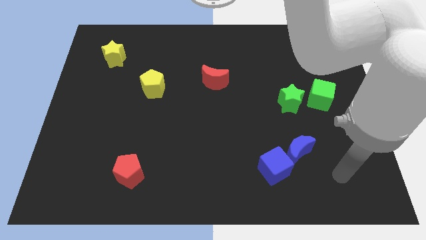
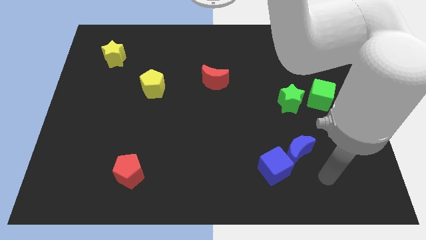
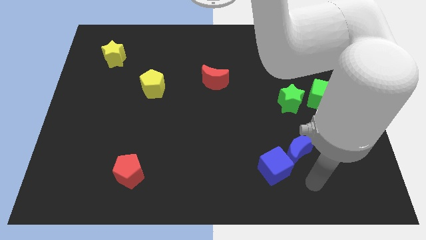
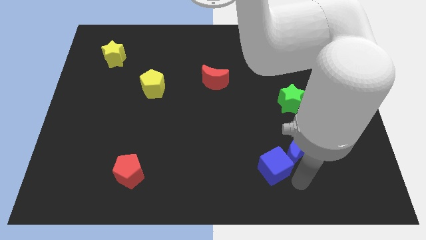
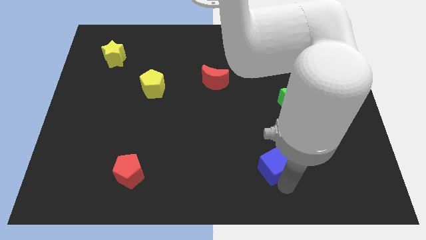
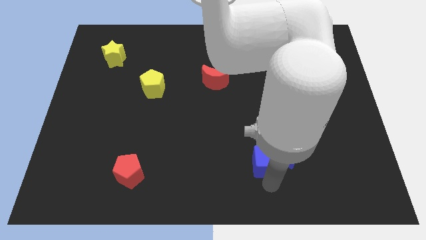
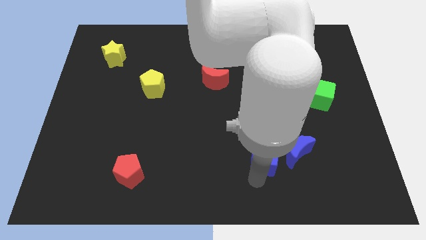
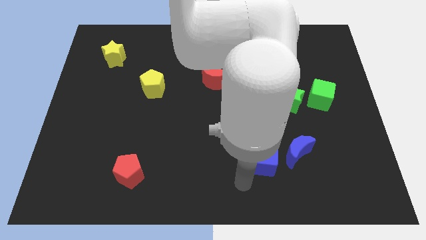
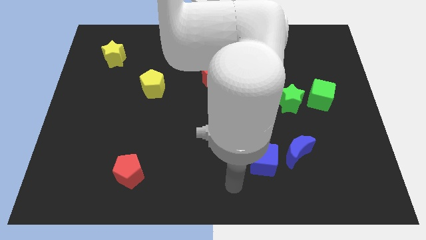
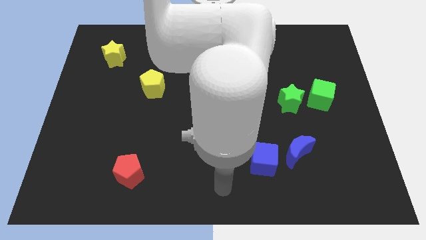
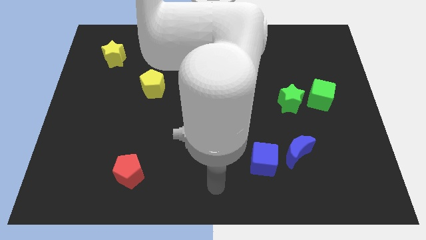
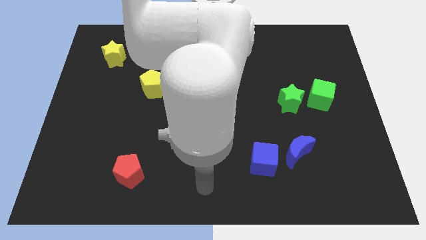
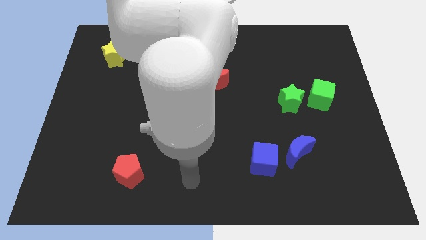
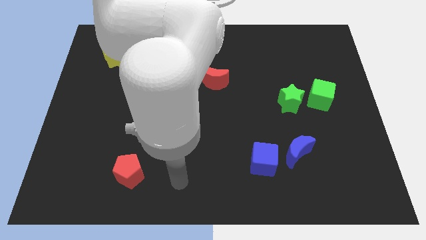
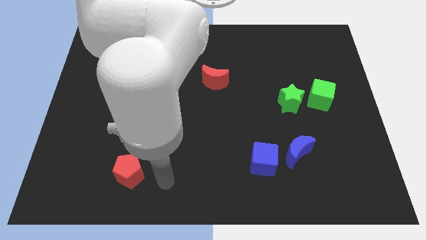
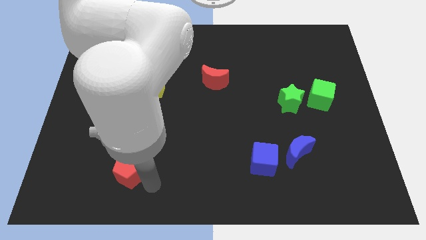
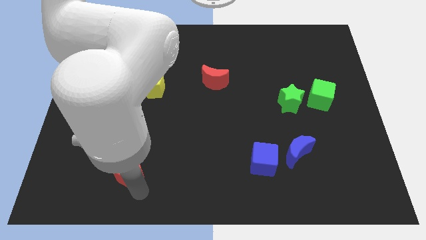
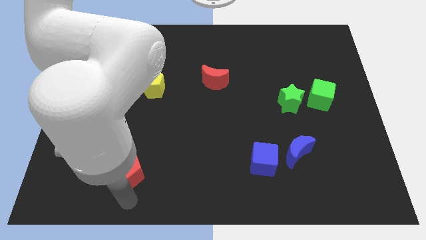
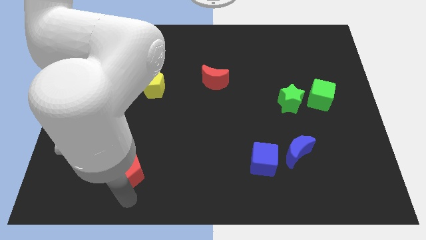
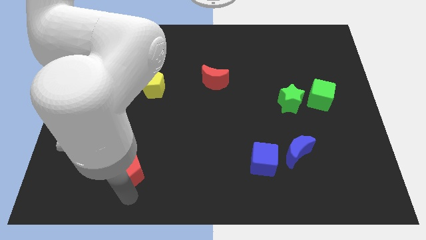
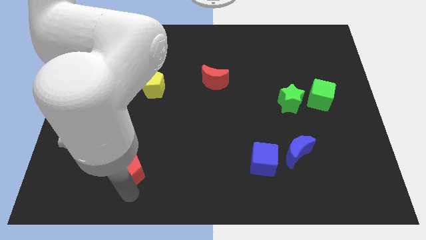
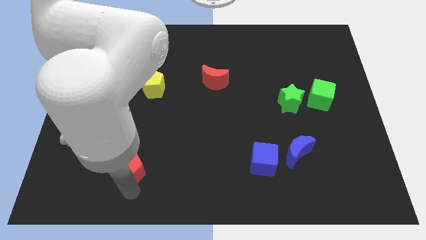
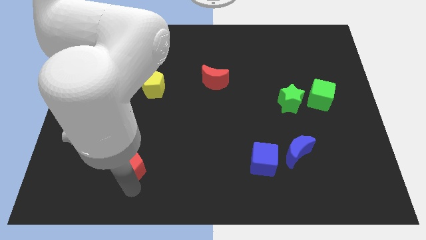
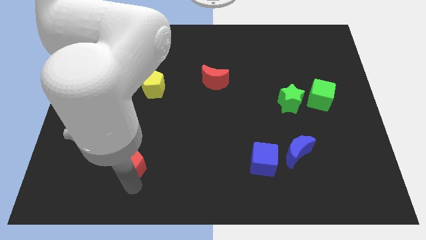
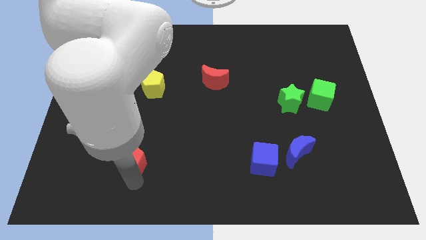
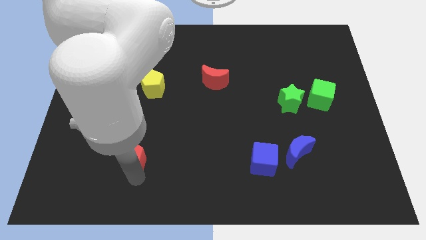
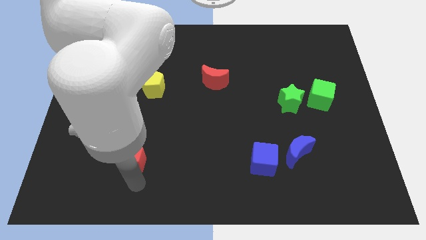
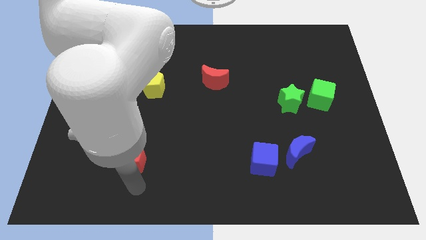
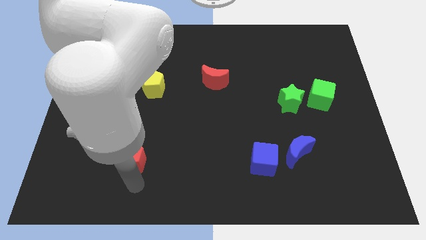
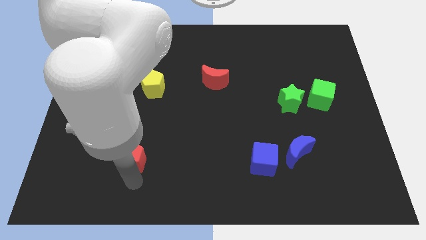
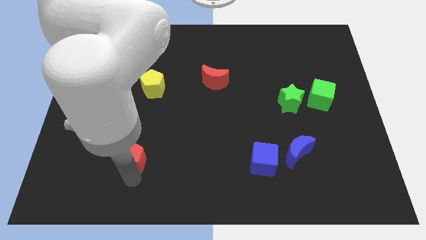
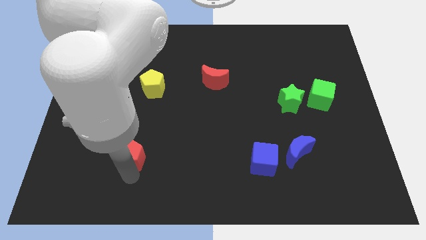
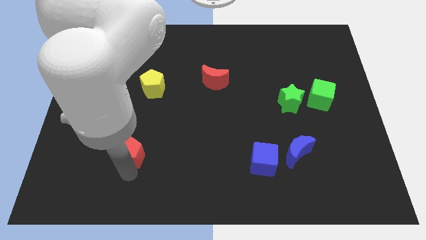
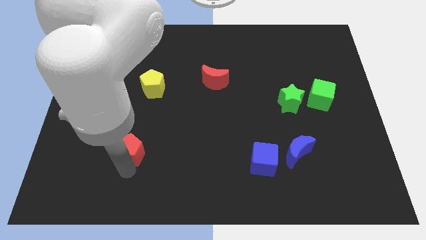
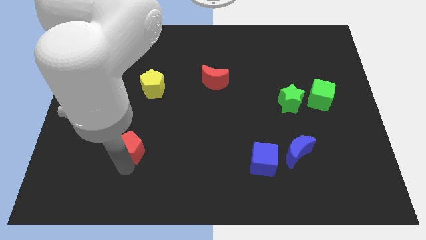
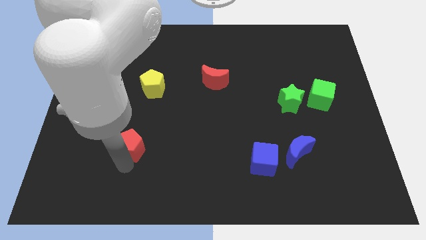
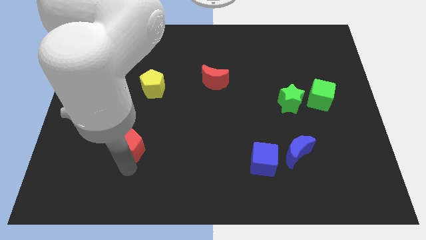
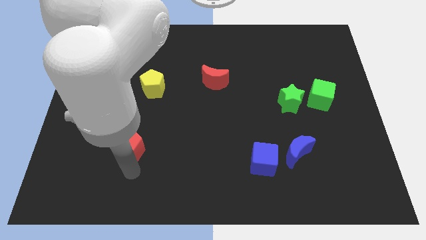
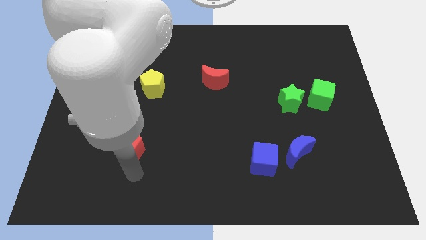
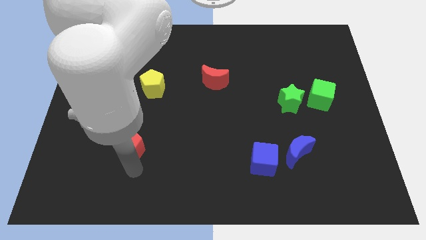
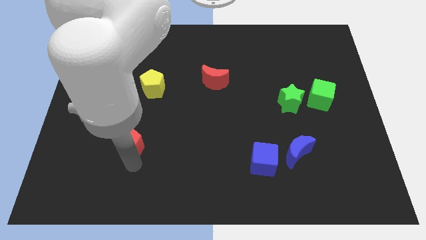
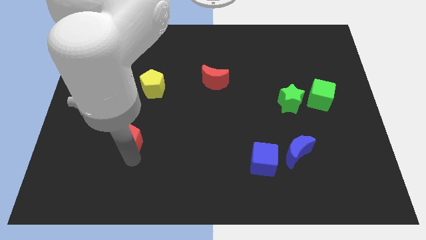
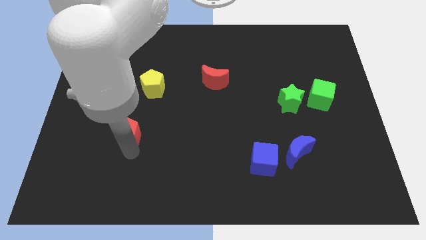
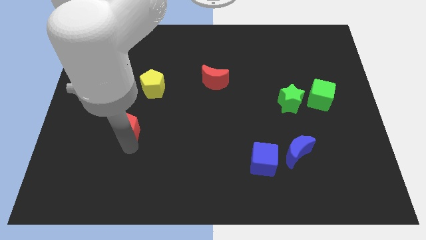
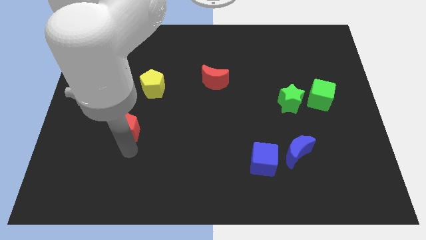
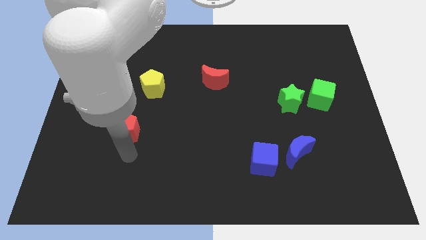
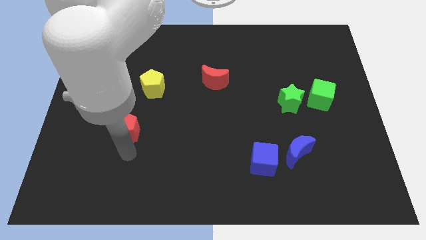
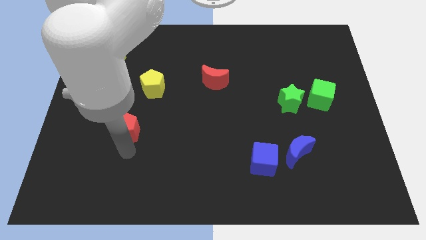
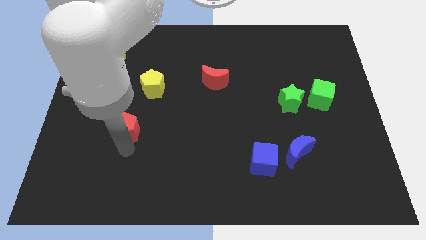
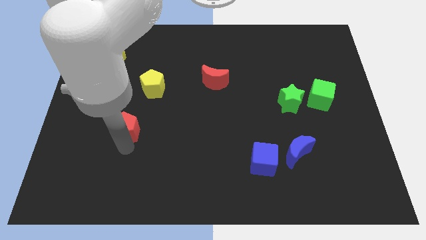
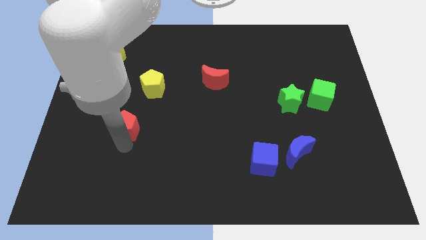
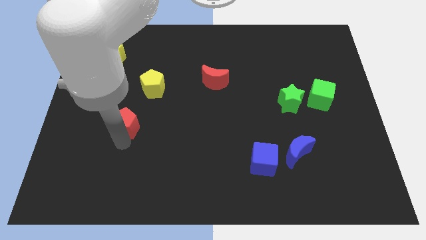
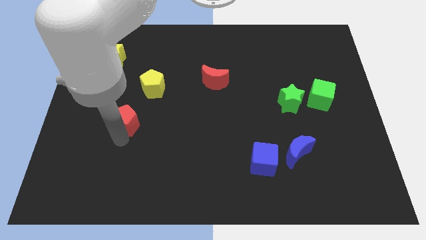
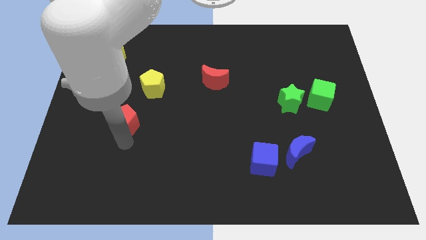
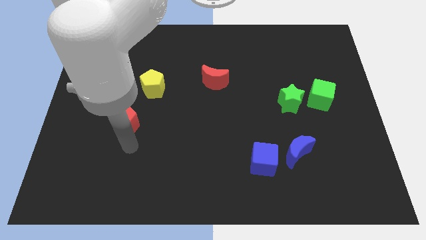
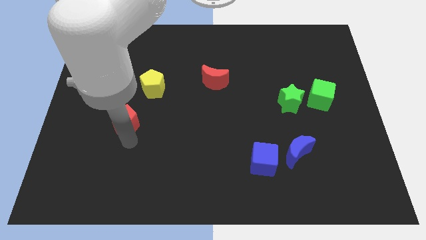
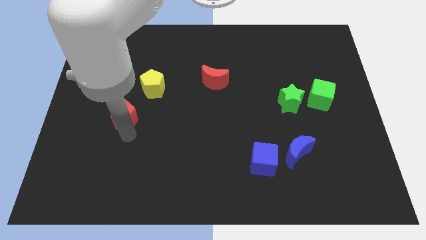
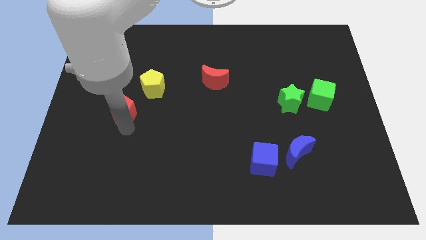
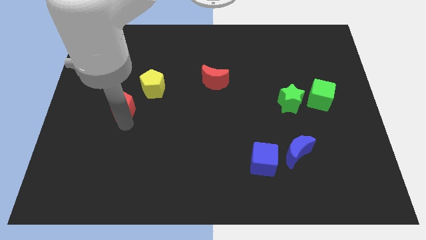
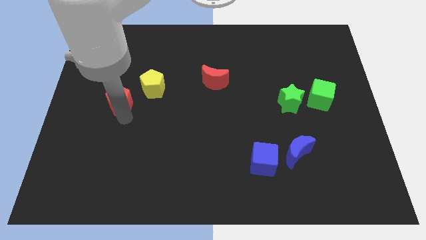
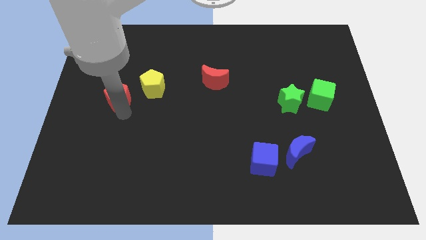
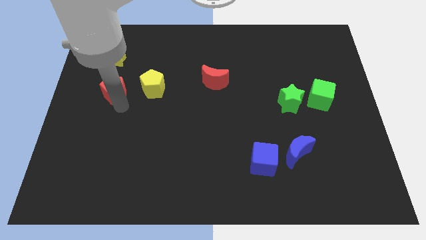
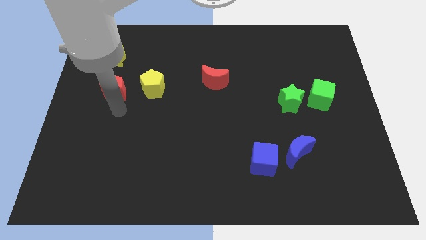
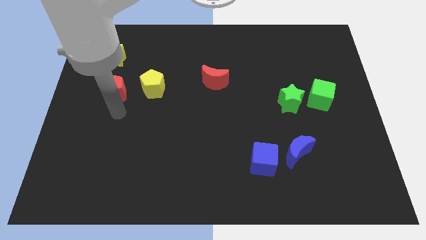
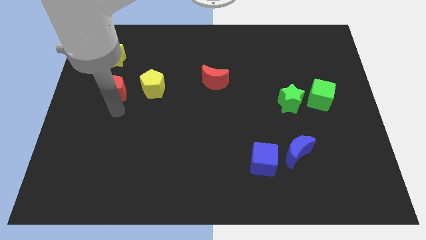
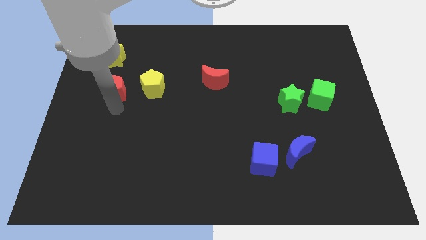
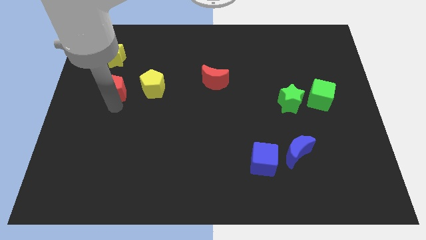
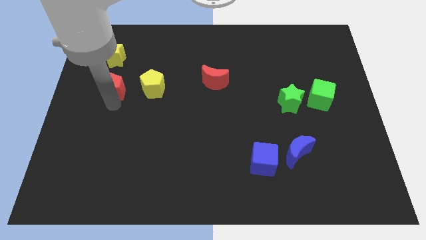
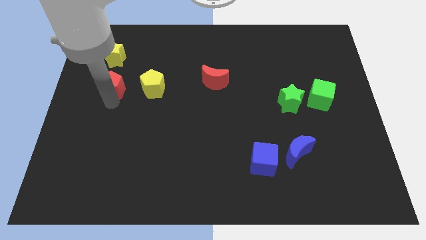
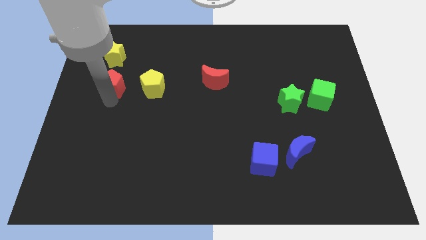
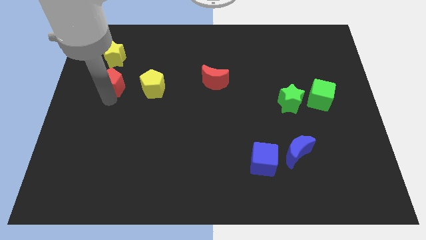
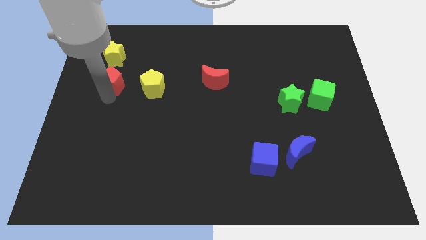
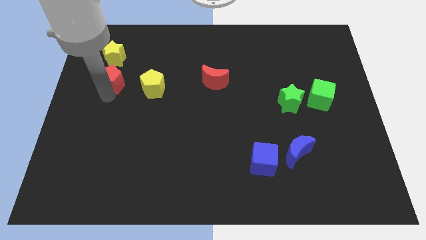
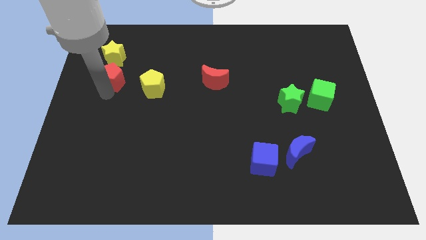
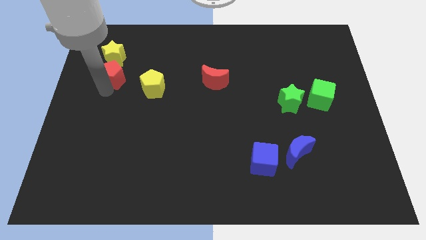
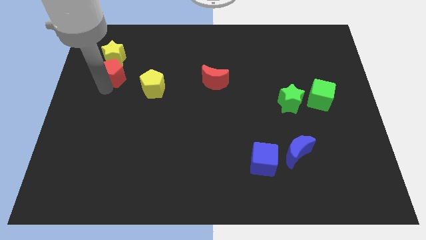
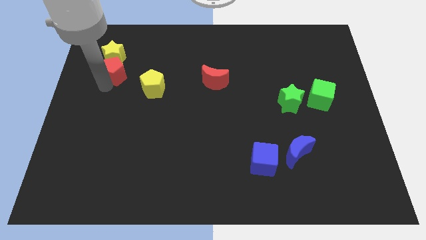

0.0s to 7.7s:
put the red pentagon towards the yellow star
